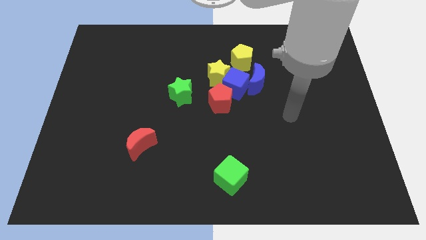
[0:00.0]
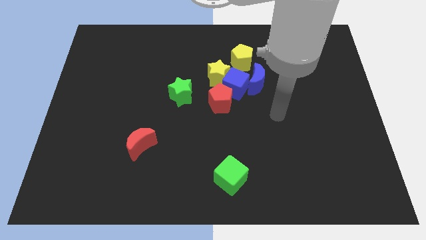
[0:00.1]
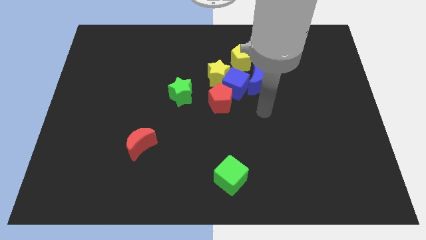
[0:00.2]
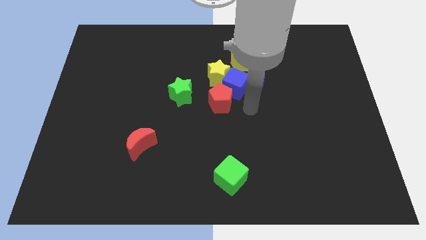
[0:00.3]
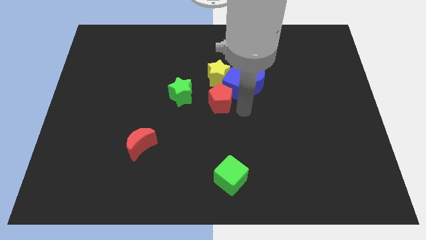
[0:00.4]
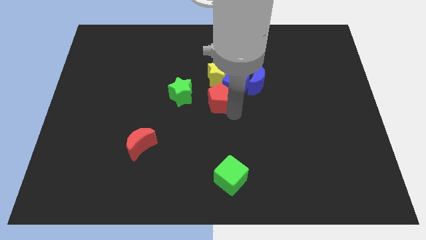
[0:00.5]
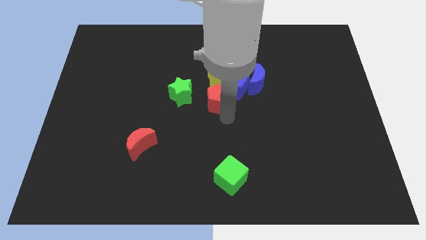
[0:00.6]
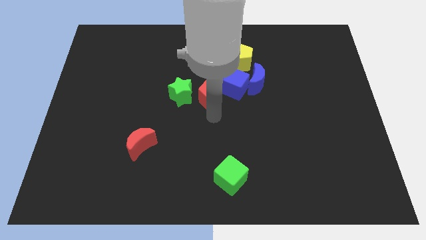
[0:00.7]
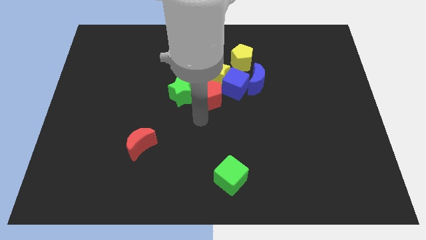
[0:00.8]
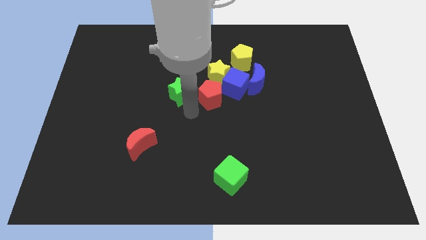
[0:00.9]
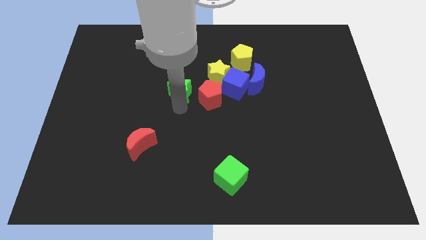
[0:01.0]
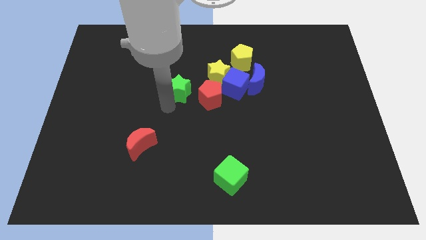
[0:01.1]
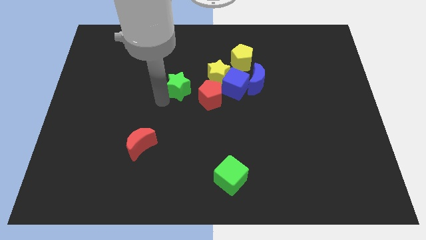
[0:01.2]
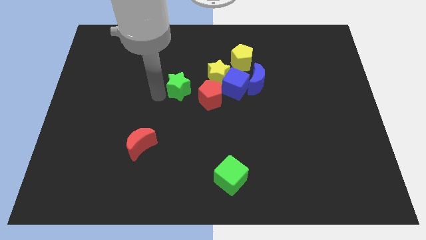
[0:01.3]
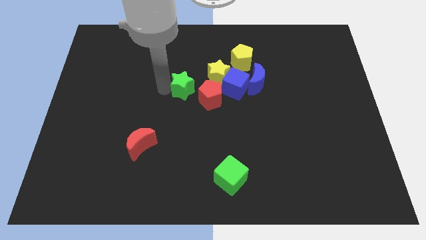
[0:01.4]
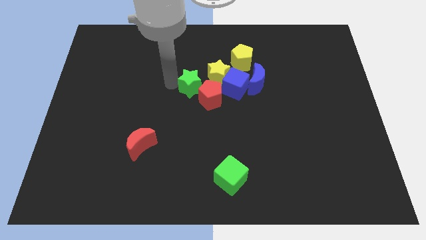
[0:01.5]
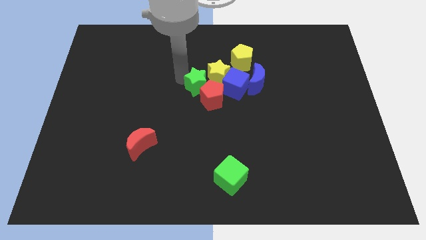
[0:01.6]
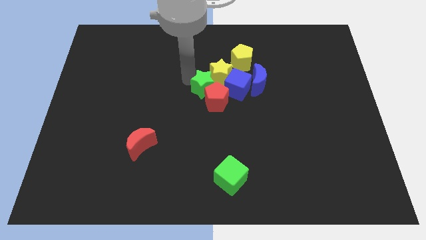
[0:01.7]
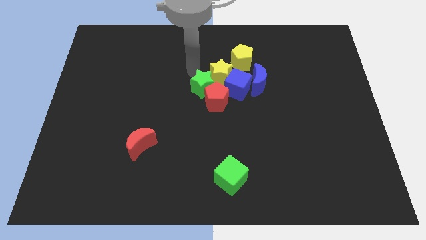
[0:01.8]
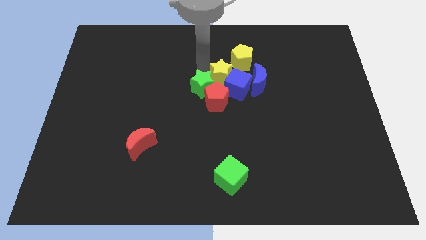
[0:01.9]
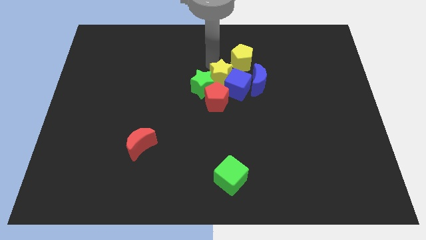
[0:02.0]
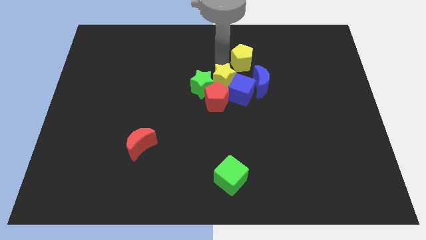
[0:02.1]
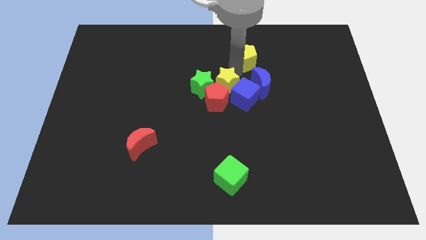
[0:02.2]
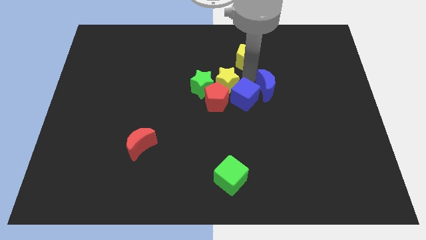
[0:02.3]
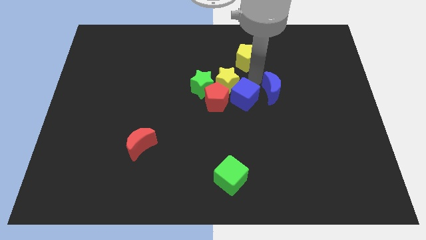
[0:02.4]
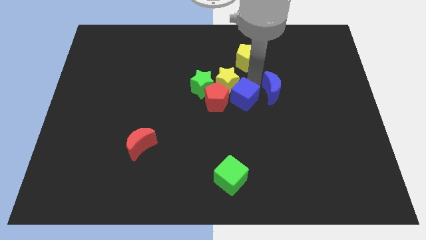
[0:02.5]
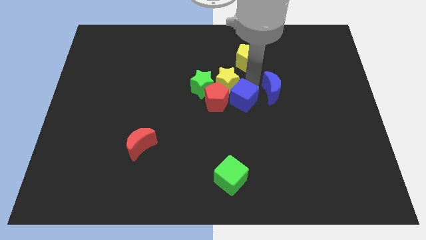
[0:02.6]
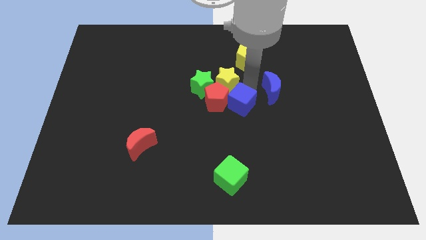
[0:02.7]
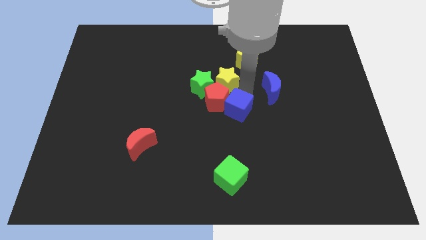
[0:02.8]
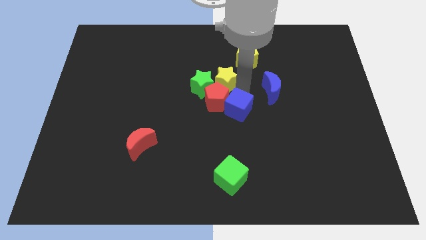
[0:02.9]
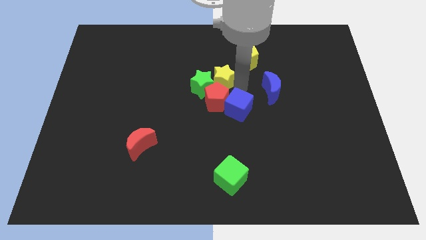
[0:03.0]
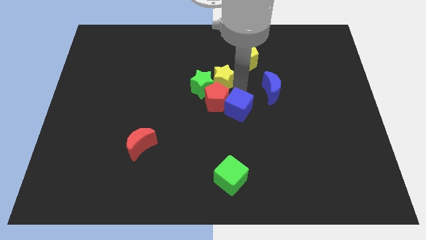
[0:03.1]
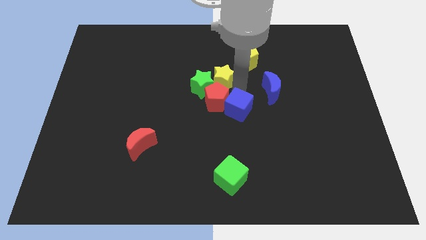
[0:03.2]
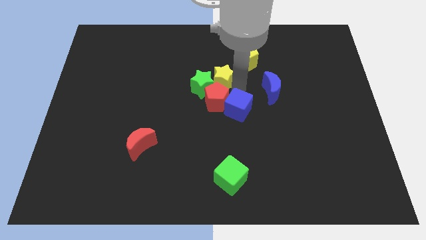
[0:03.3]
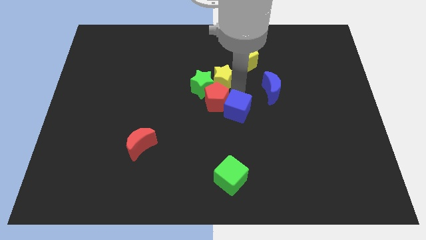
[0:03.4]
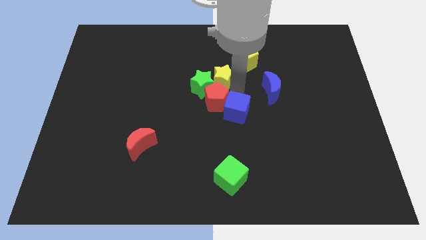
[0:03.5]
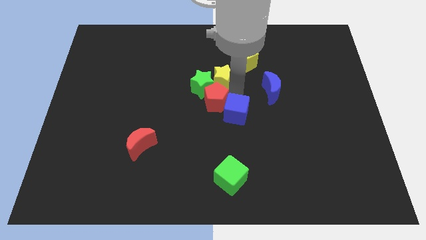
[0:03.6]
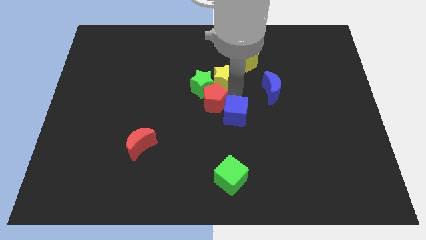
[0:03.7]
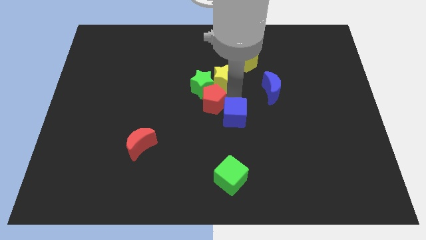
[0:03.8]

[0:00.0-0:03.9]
separate the blue cube from the group

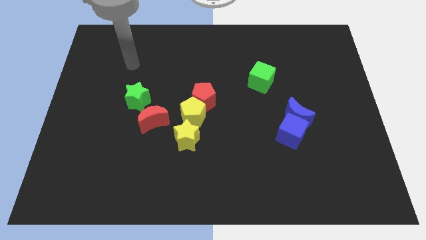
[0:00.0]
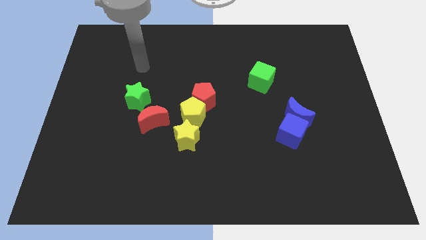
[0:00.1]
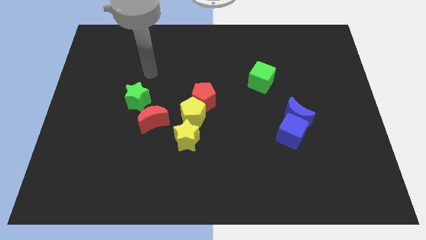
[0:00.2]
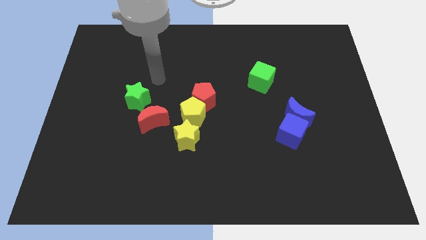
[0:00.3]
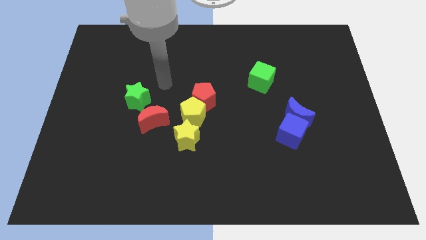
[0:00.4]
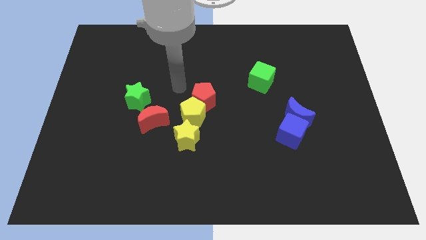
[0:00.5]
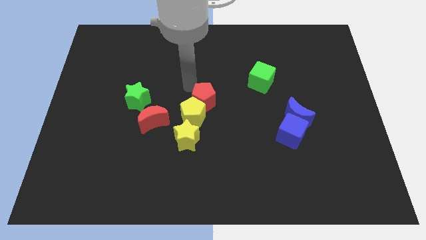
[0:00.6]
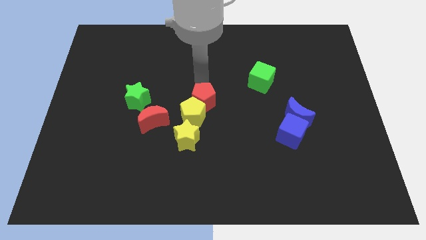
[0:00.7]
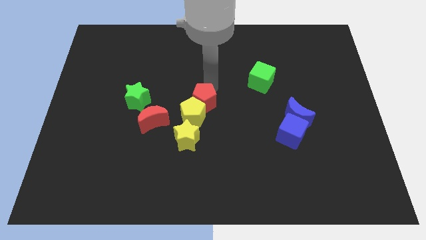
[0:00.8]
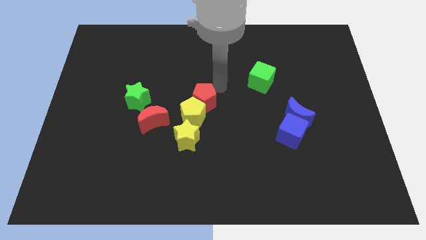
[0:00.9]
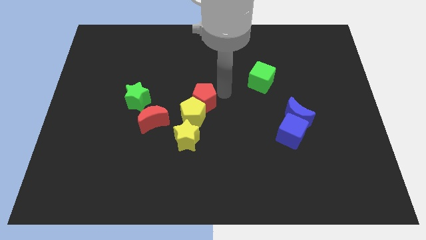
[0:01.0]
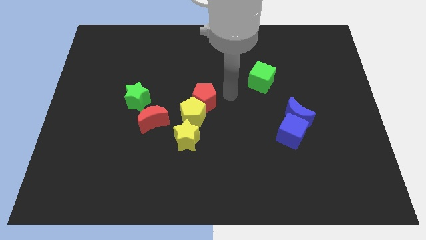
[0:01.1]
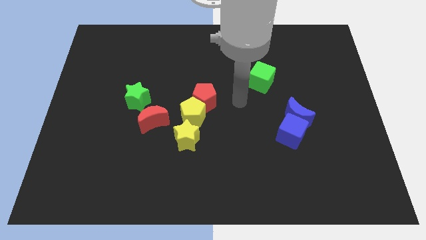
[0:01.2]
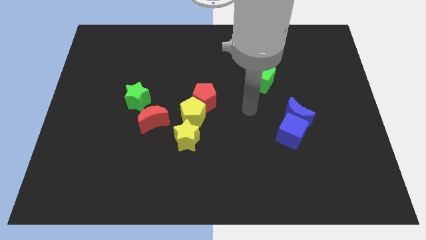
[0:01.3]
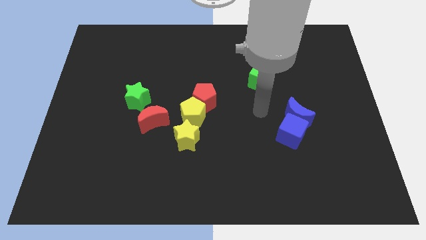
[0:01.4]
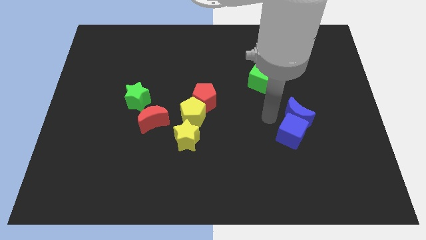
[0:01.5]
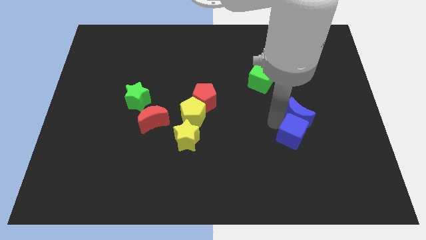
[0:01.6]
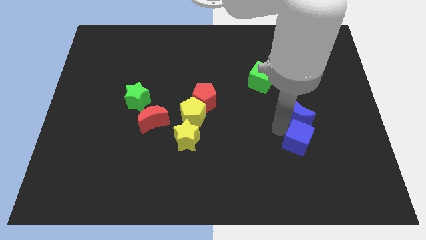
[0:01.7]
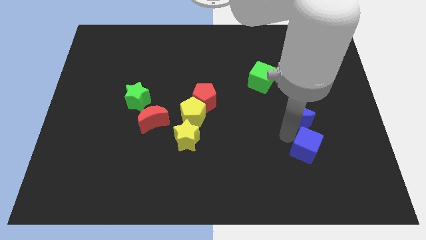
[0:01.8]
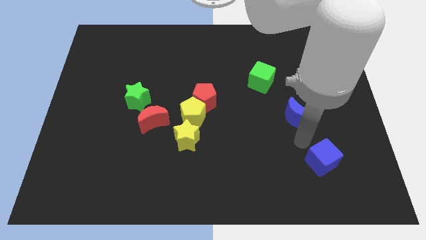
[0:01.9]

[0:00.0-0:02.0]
move the blue moon away from the blue cube

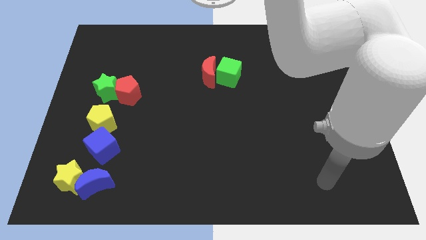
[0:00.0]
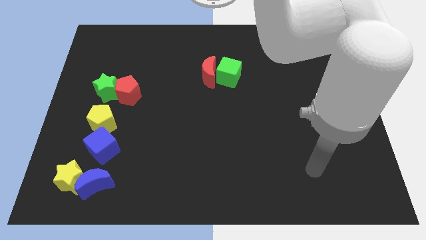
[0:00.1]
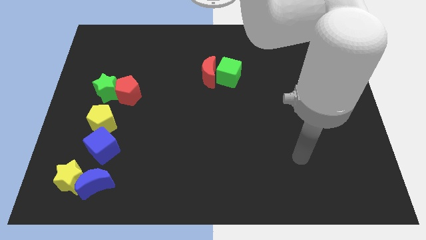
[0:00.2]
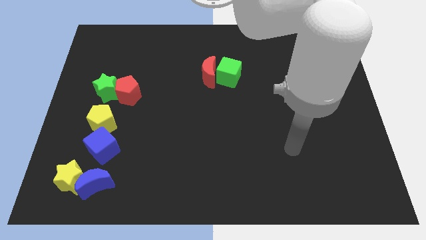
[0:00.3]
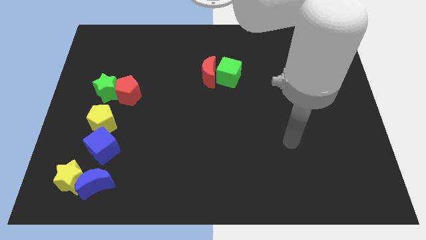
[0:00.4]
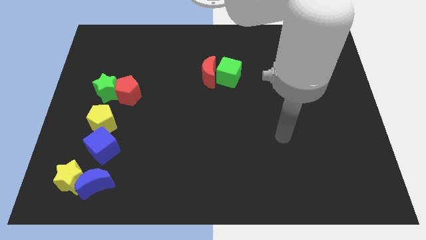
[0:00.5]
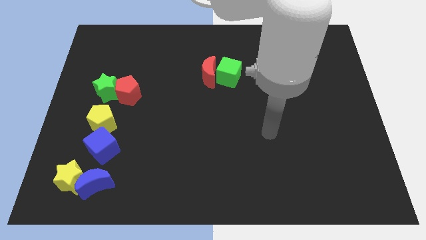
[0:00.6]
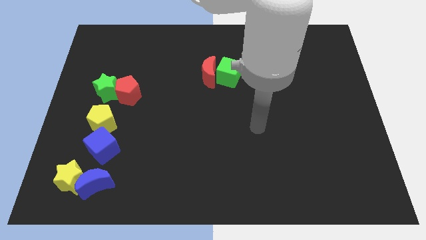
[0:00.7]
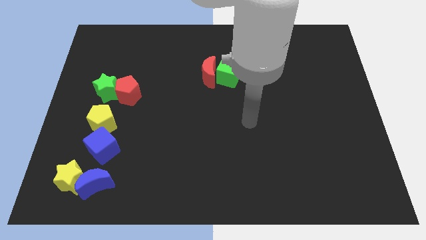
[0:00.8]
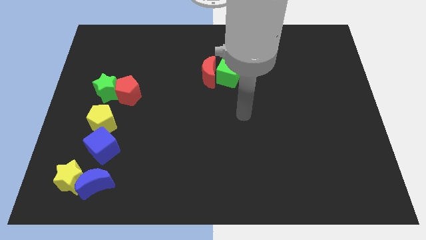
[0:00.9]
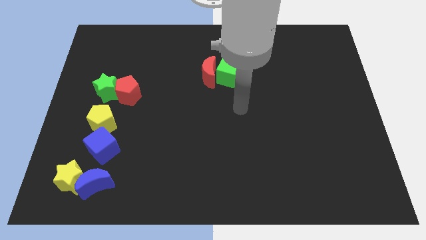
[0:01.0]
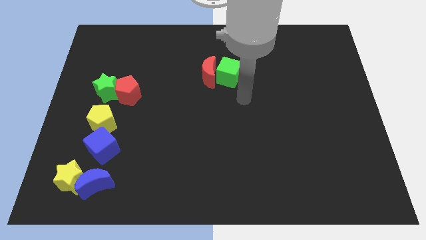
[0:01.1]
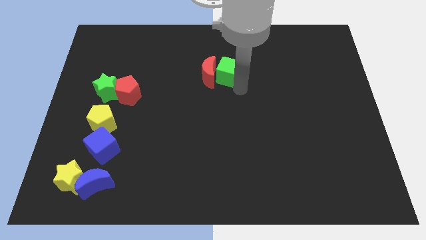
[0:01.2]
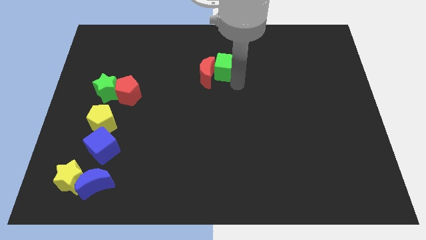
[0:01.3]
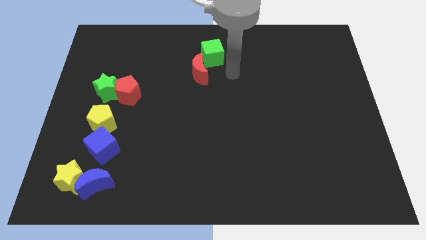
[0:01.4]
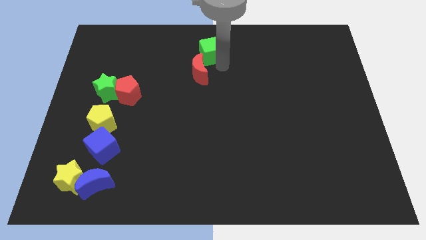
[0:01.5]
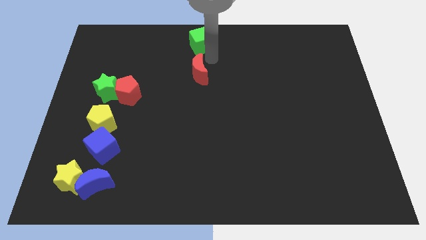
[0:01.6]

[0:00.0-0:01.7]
separate the red moon from the green cube

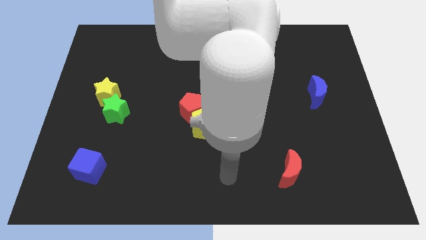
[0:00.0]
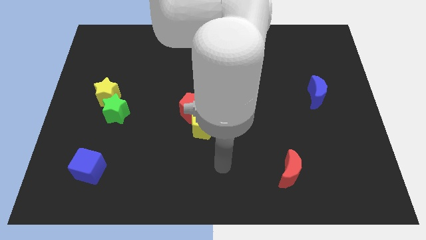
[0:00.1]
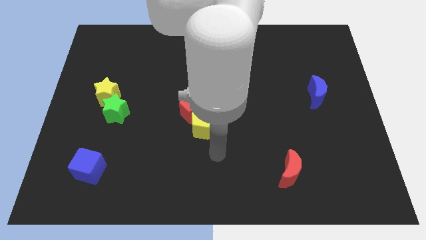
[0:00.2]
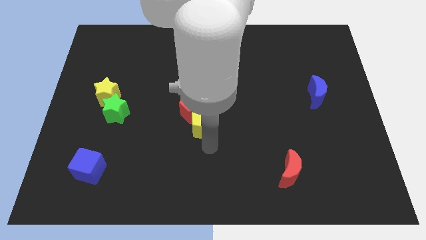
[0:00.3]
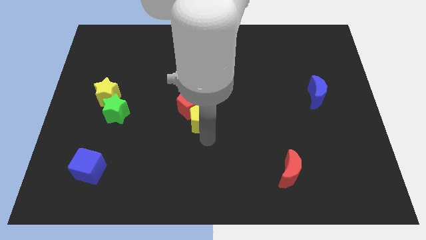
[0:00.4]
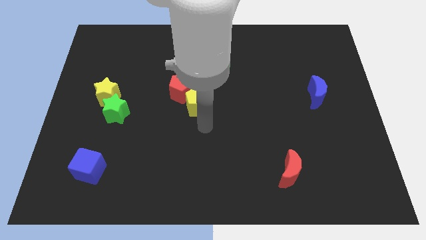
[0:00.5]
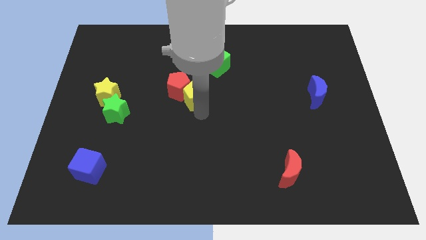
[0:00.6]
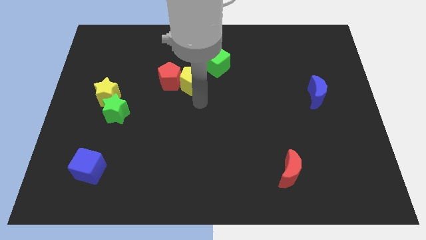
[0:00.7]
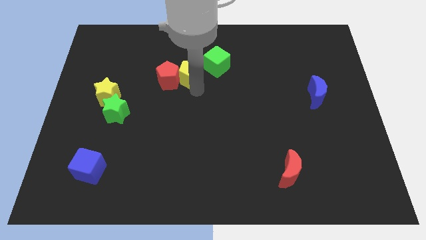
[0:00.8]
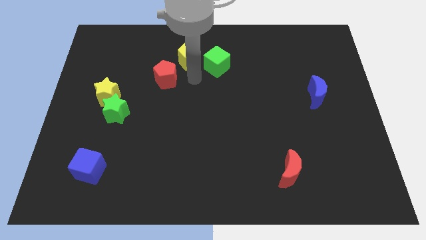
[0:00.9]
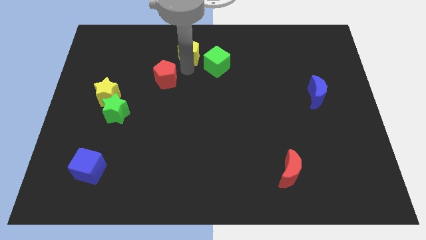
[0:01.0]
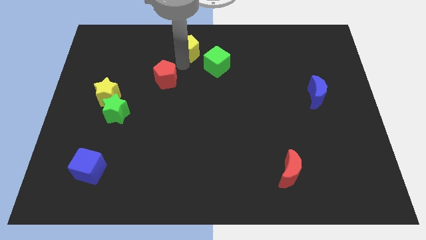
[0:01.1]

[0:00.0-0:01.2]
move the red pentagon away from the yellow pentagon

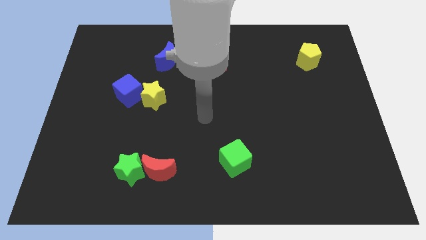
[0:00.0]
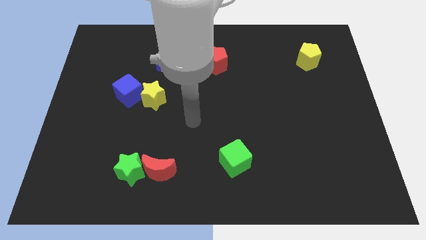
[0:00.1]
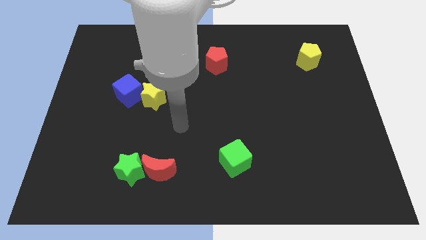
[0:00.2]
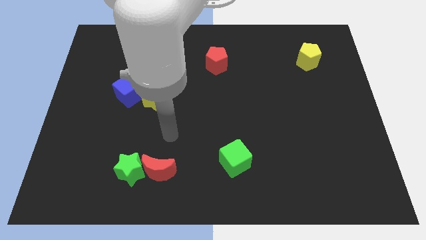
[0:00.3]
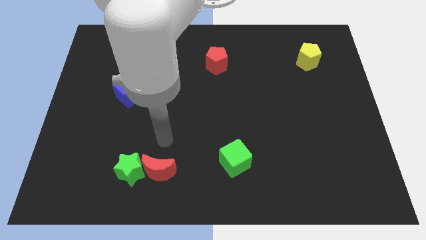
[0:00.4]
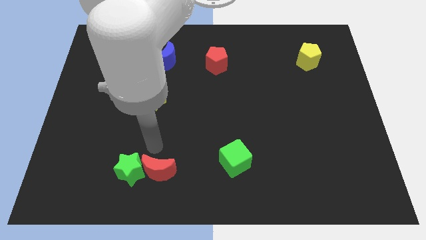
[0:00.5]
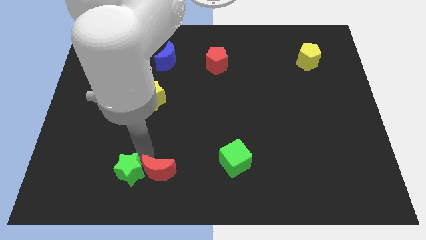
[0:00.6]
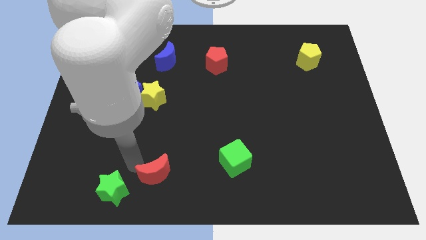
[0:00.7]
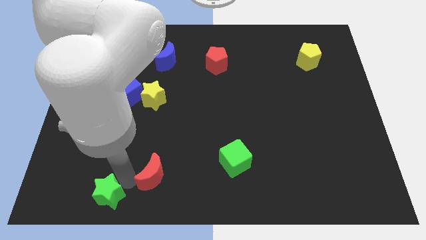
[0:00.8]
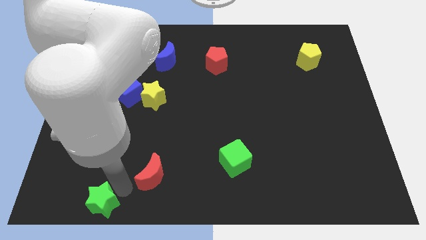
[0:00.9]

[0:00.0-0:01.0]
separate the red moon from the green star
